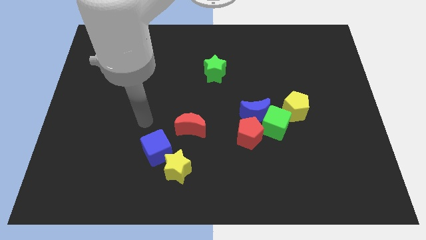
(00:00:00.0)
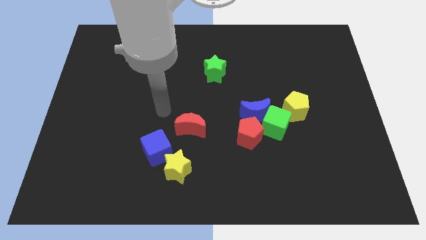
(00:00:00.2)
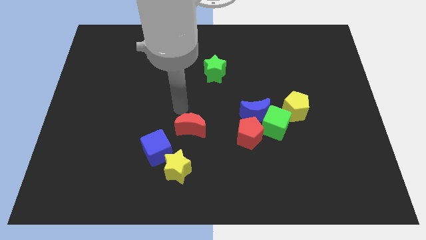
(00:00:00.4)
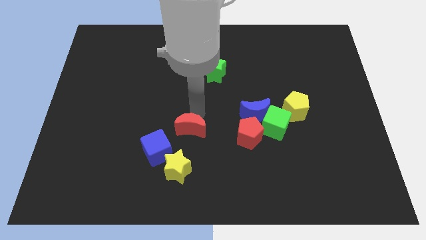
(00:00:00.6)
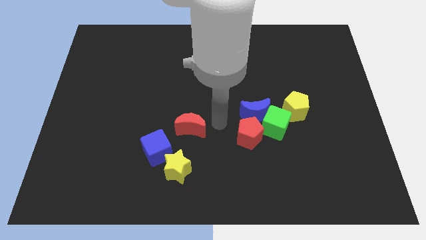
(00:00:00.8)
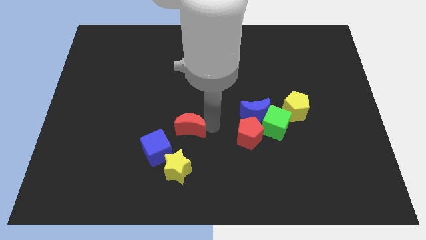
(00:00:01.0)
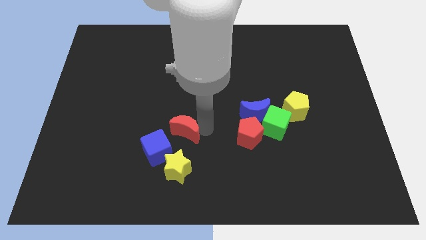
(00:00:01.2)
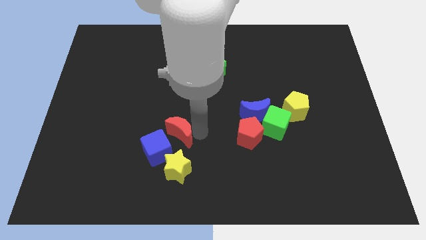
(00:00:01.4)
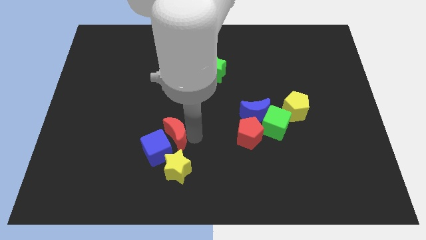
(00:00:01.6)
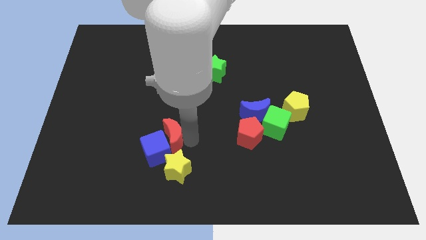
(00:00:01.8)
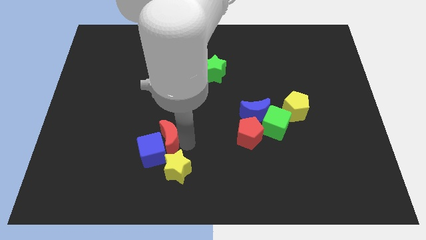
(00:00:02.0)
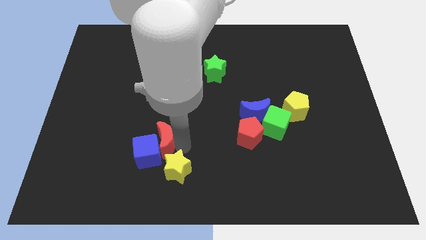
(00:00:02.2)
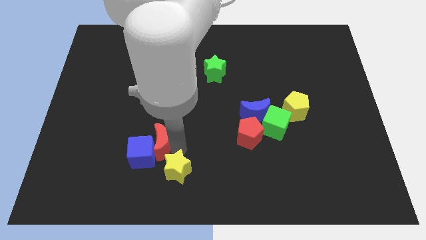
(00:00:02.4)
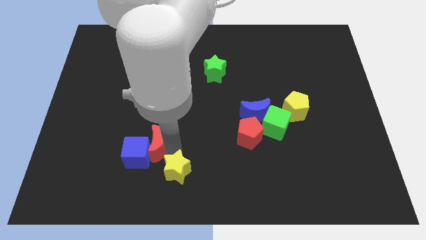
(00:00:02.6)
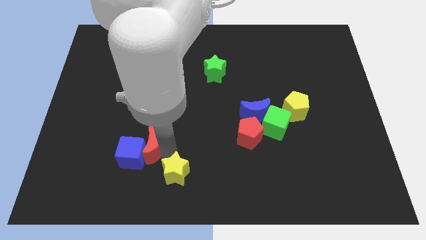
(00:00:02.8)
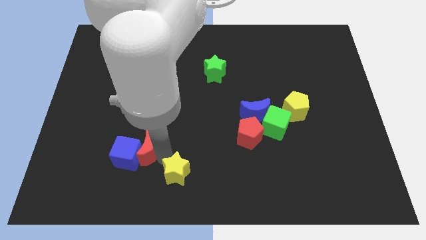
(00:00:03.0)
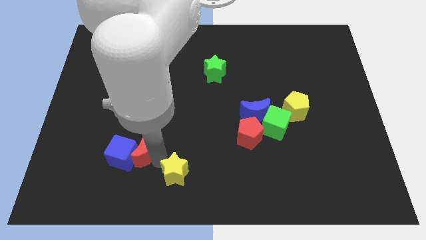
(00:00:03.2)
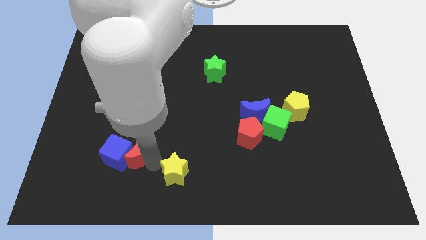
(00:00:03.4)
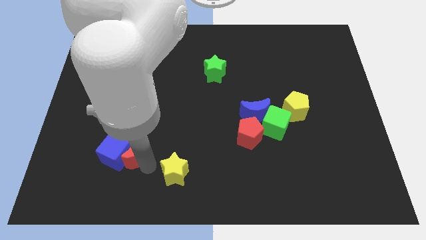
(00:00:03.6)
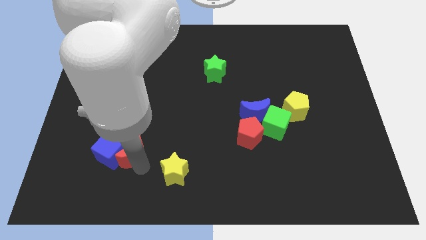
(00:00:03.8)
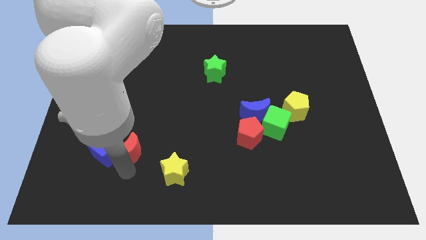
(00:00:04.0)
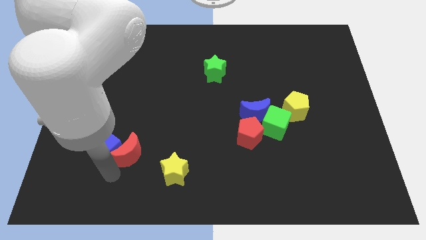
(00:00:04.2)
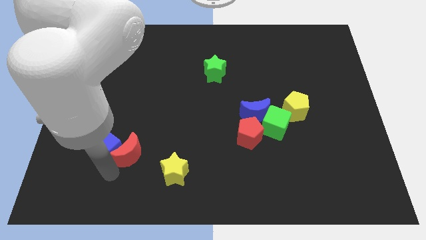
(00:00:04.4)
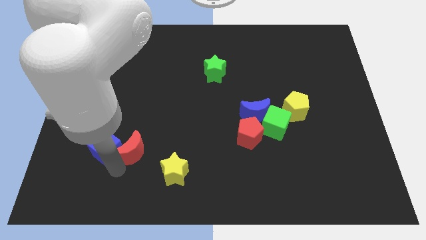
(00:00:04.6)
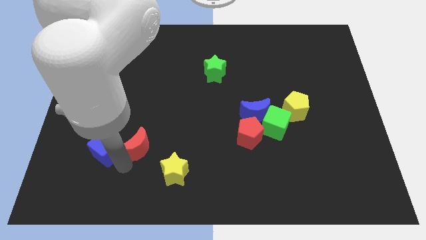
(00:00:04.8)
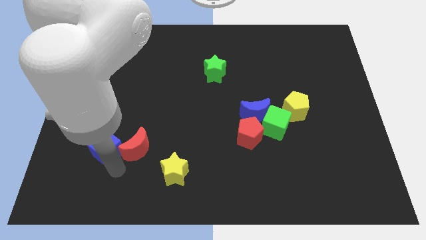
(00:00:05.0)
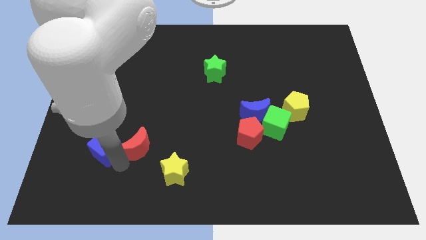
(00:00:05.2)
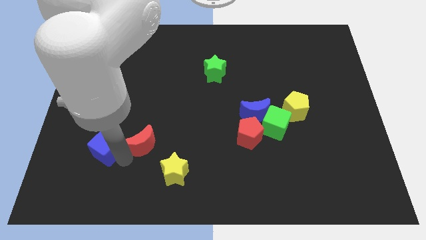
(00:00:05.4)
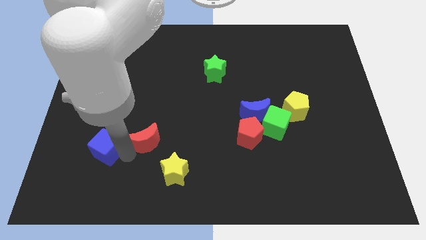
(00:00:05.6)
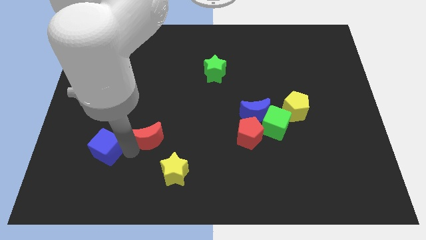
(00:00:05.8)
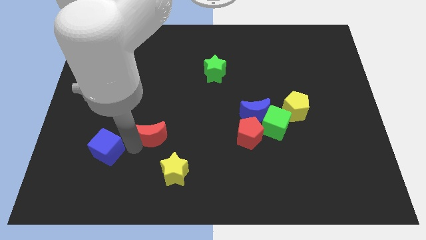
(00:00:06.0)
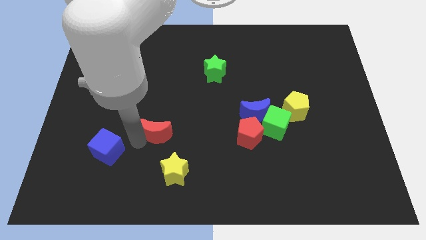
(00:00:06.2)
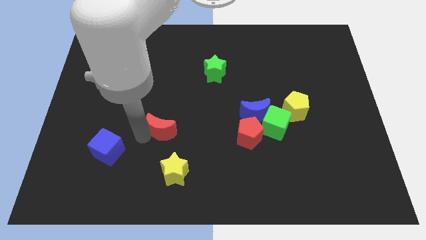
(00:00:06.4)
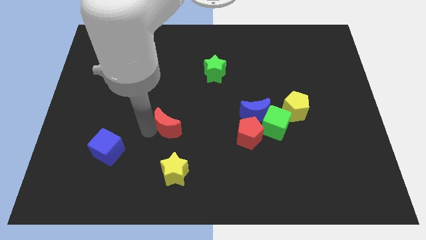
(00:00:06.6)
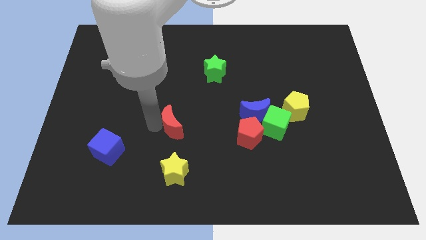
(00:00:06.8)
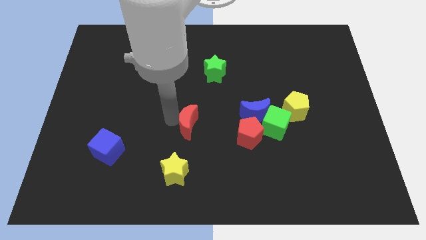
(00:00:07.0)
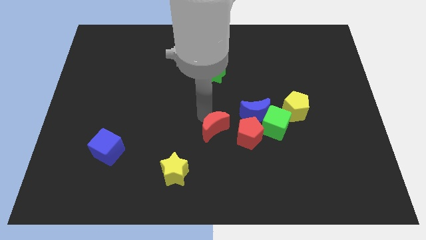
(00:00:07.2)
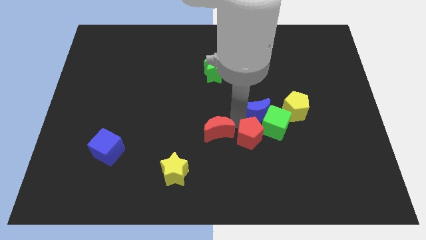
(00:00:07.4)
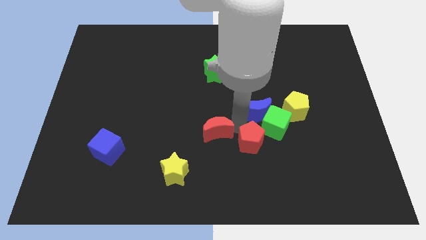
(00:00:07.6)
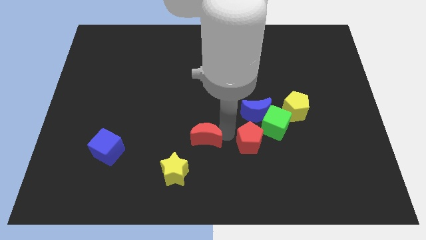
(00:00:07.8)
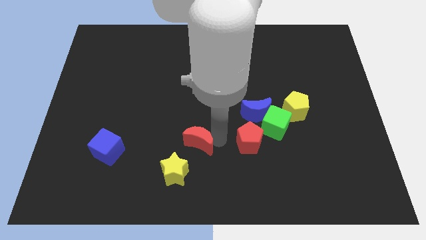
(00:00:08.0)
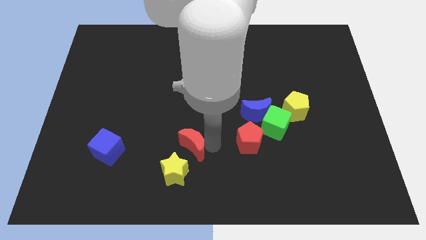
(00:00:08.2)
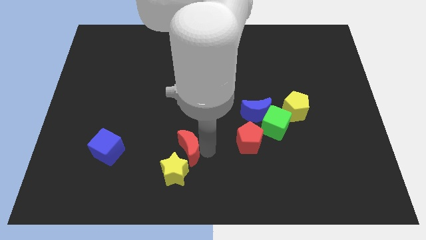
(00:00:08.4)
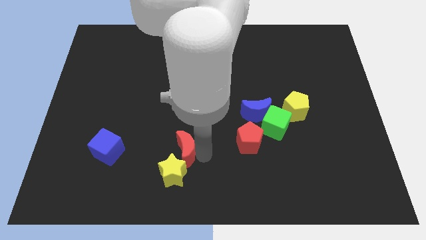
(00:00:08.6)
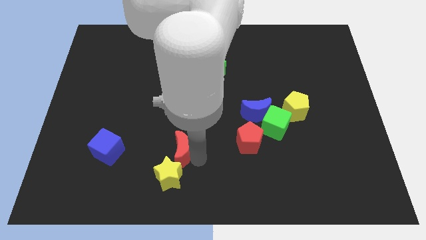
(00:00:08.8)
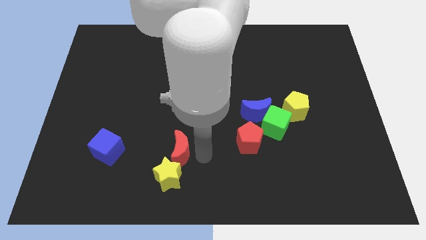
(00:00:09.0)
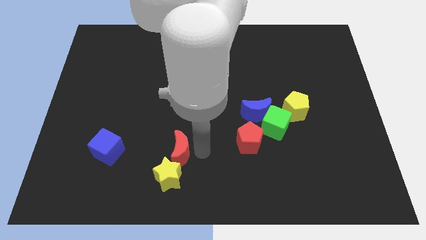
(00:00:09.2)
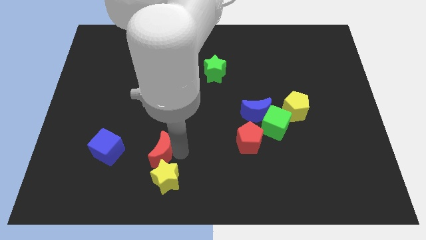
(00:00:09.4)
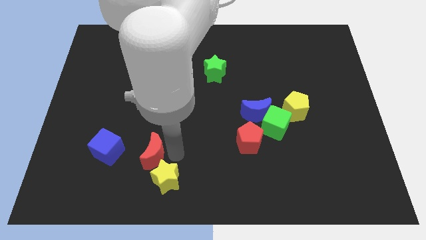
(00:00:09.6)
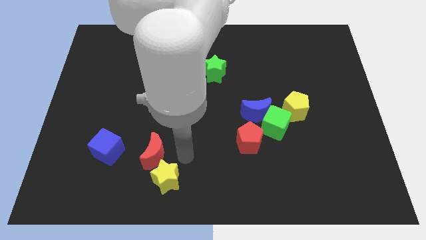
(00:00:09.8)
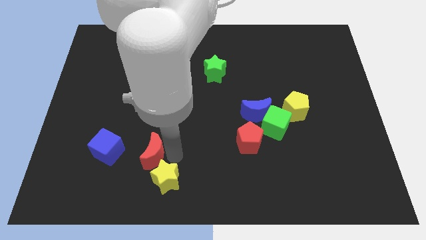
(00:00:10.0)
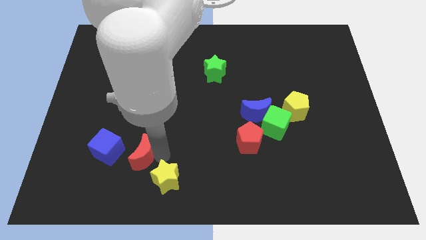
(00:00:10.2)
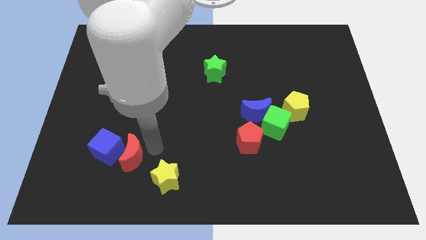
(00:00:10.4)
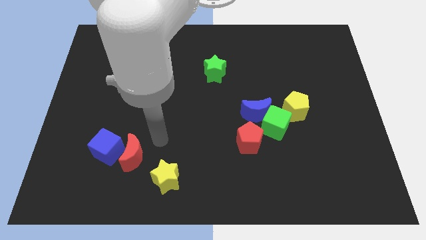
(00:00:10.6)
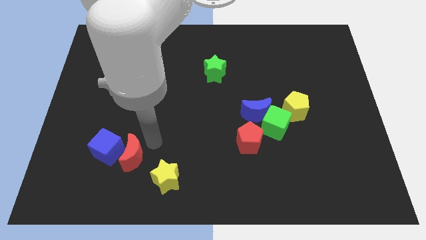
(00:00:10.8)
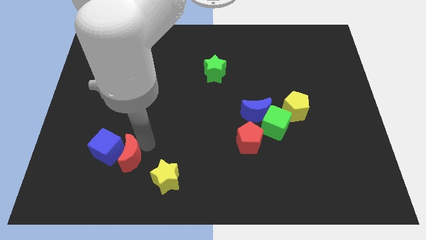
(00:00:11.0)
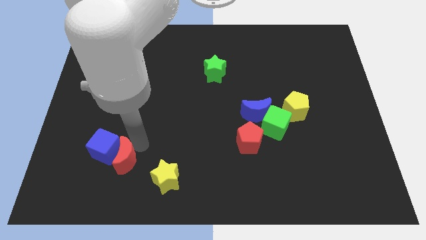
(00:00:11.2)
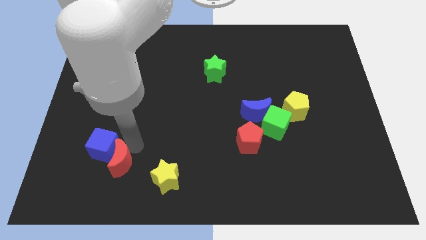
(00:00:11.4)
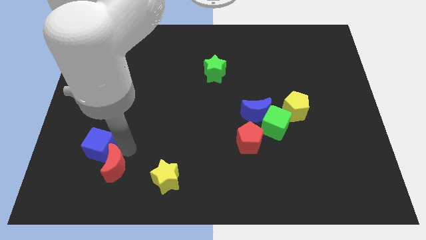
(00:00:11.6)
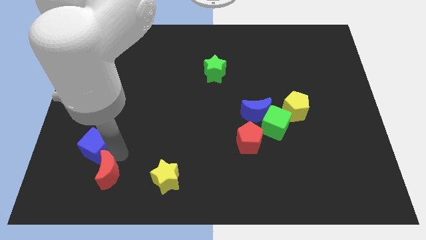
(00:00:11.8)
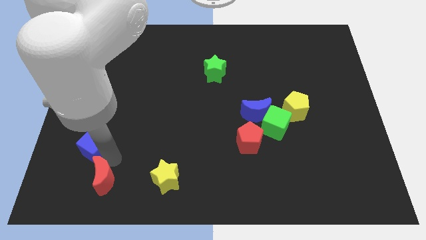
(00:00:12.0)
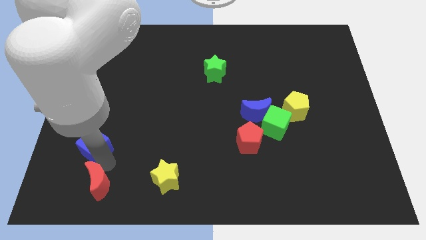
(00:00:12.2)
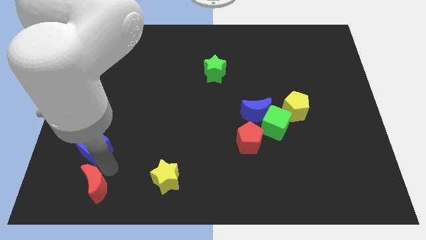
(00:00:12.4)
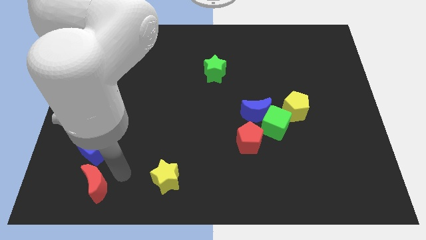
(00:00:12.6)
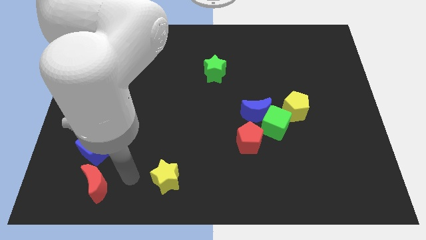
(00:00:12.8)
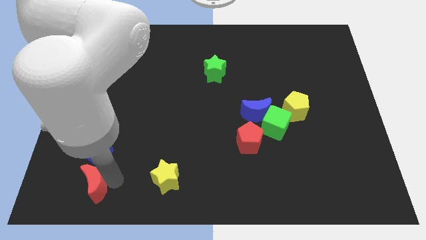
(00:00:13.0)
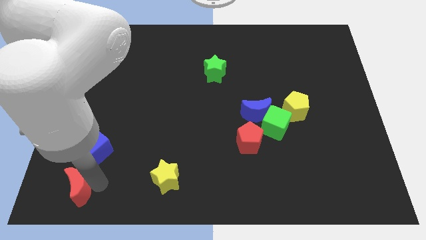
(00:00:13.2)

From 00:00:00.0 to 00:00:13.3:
put the red moon to the bottom left corner

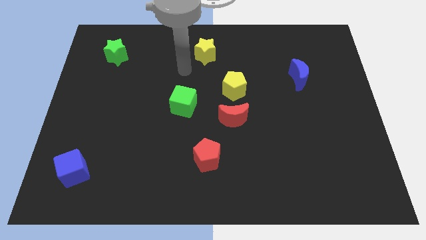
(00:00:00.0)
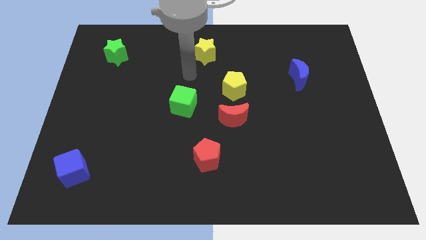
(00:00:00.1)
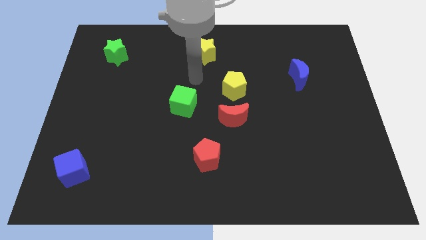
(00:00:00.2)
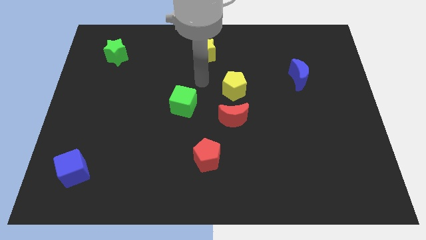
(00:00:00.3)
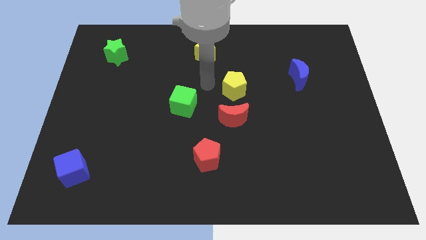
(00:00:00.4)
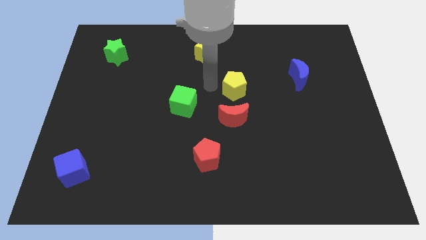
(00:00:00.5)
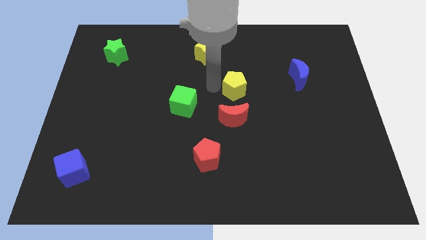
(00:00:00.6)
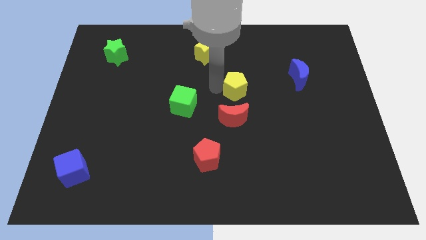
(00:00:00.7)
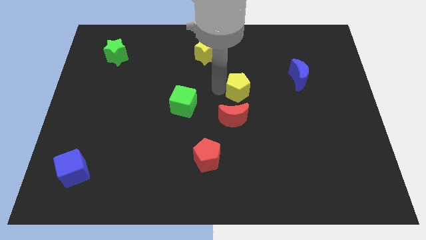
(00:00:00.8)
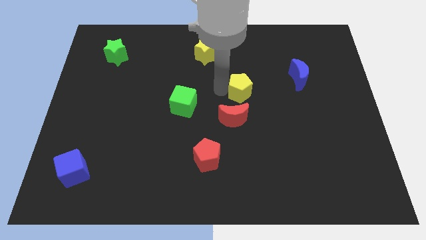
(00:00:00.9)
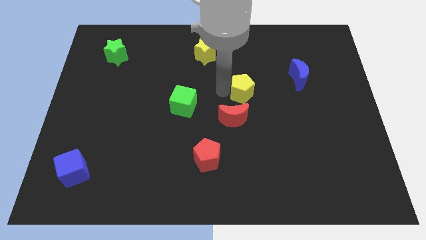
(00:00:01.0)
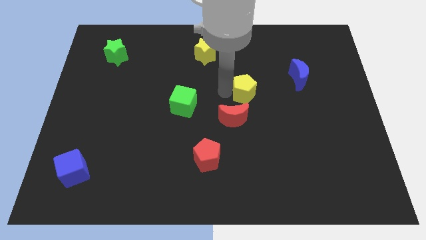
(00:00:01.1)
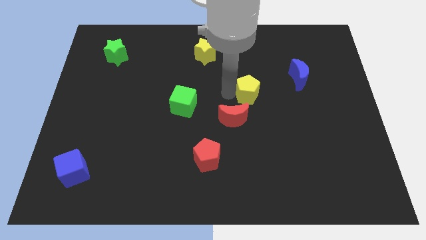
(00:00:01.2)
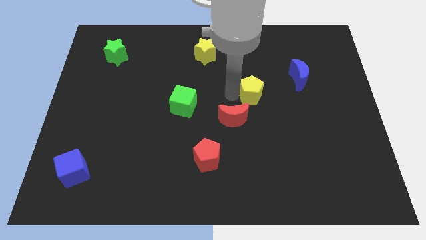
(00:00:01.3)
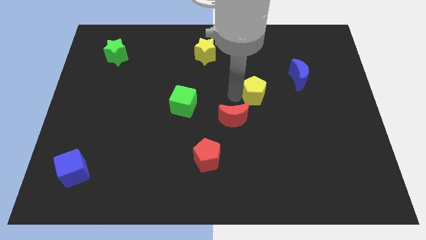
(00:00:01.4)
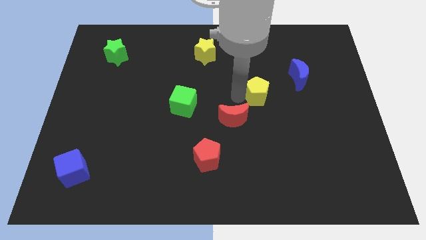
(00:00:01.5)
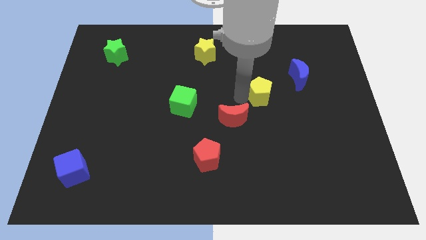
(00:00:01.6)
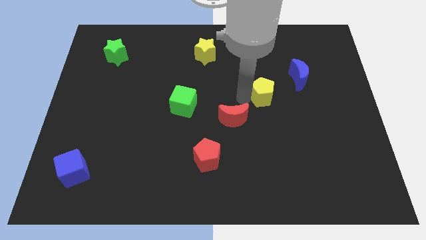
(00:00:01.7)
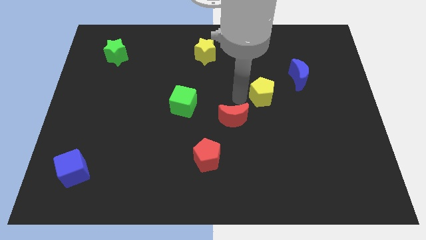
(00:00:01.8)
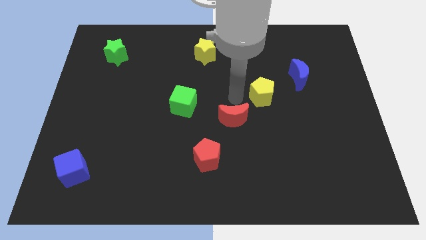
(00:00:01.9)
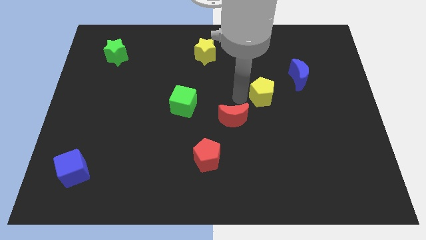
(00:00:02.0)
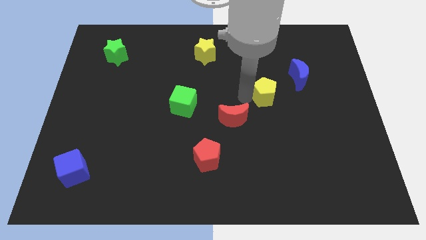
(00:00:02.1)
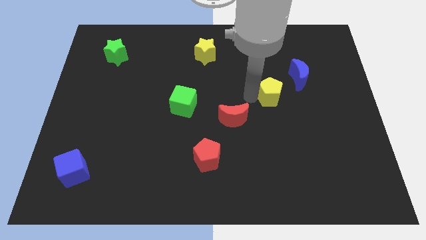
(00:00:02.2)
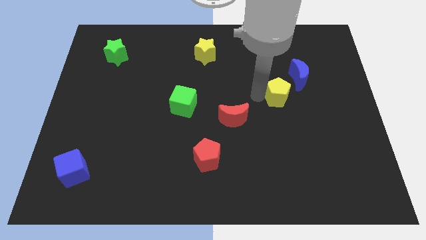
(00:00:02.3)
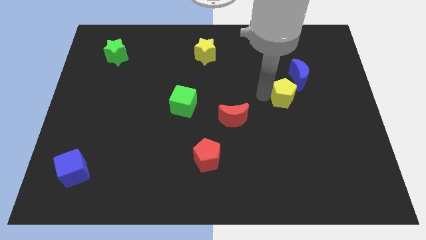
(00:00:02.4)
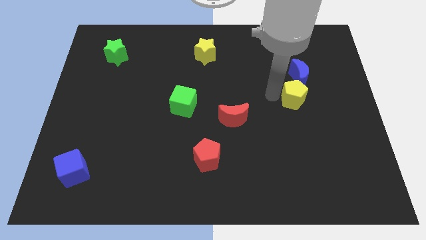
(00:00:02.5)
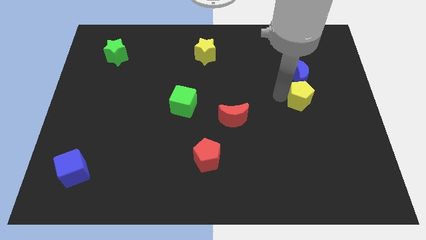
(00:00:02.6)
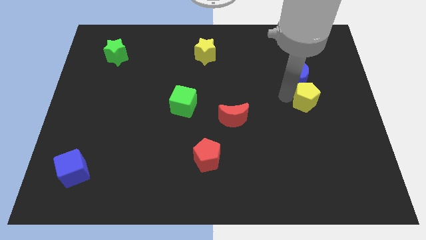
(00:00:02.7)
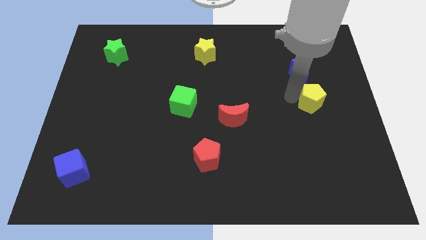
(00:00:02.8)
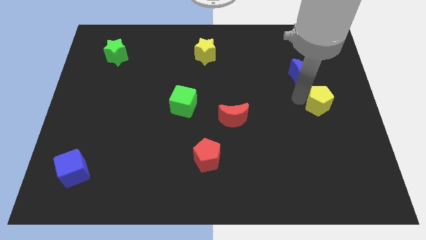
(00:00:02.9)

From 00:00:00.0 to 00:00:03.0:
slide the yellow pentagon to the center right
